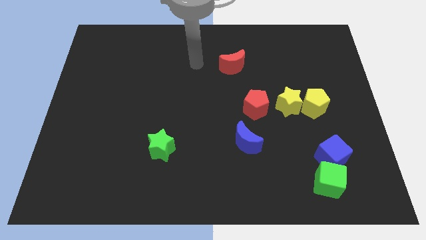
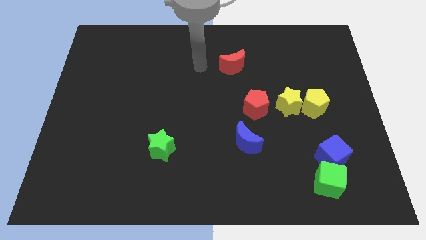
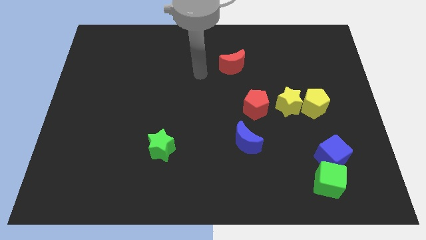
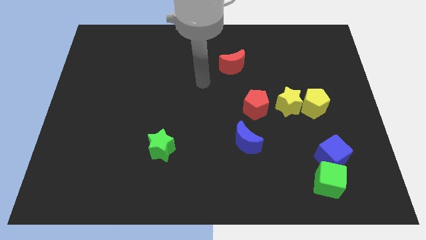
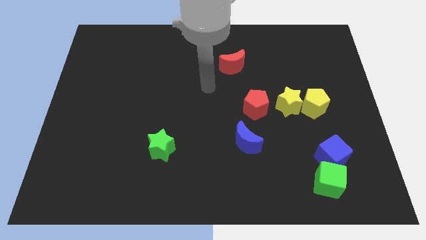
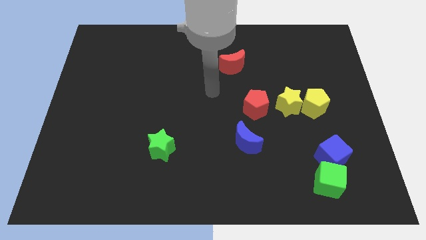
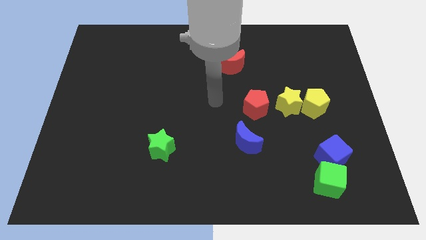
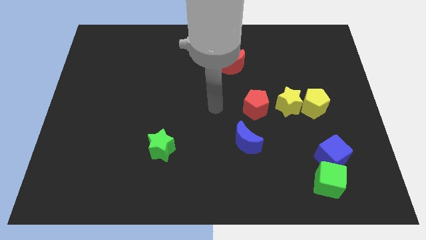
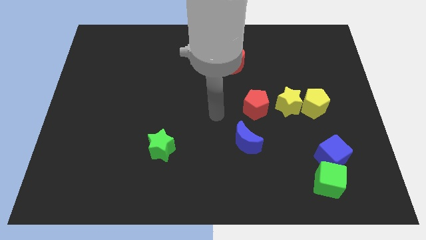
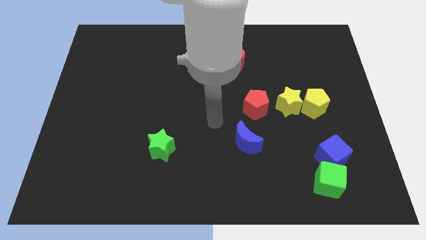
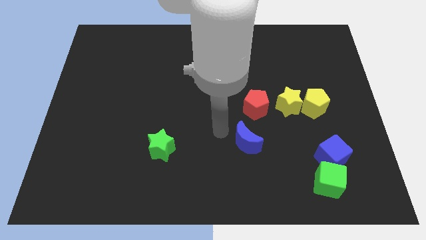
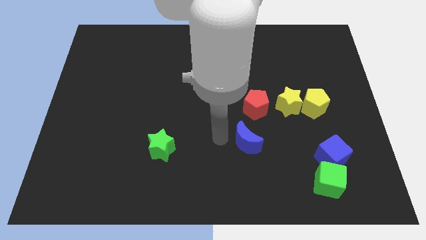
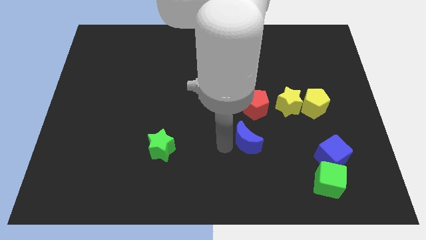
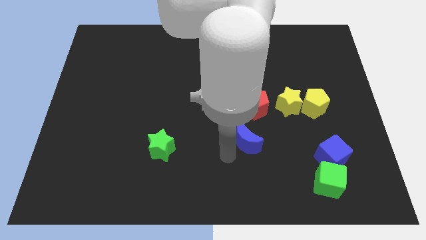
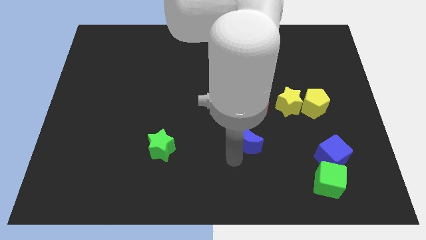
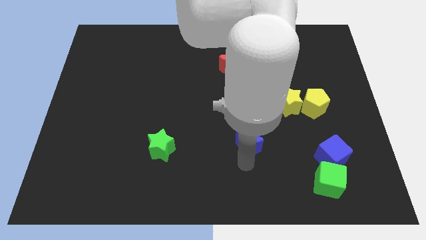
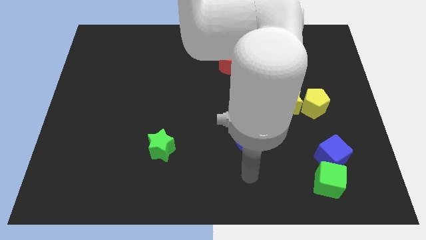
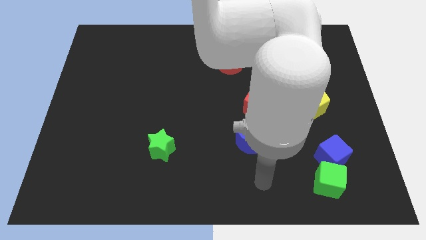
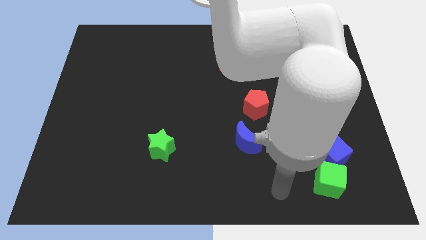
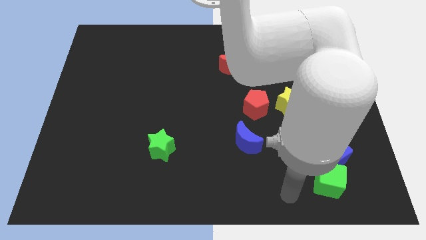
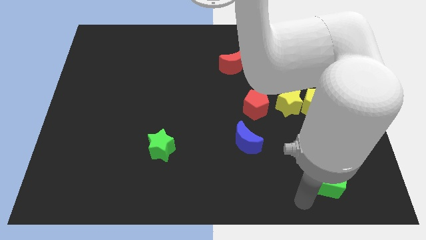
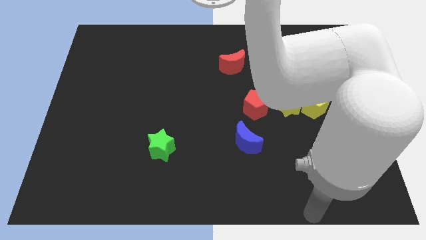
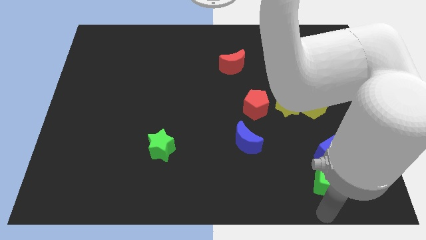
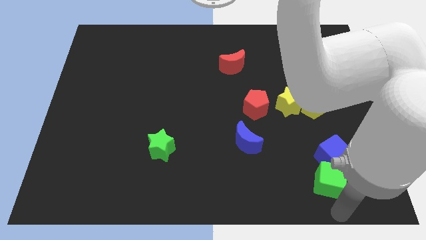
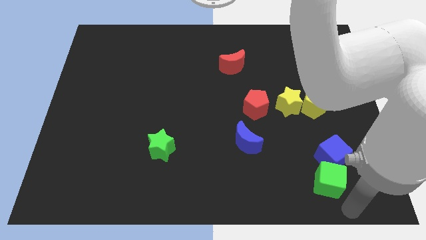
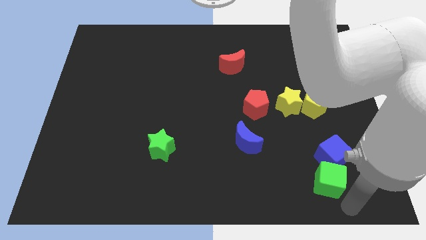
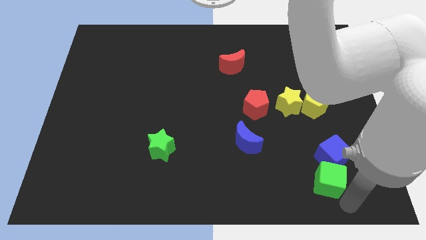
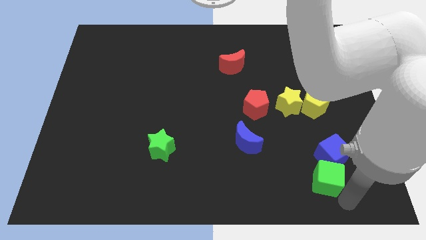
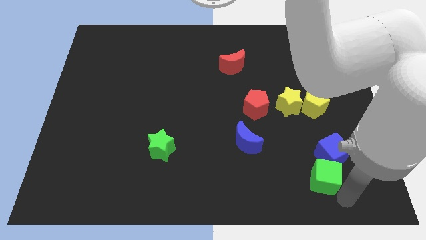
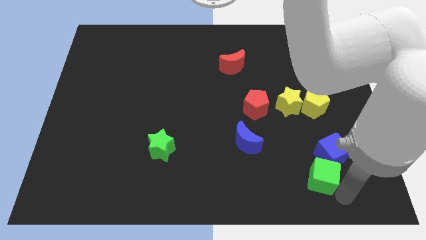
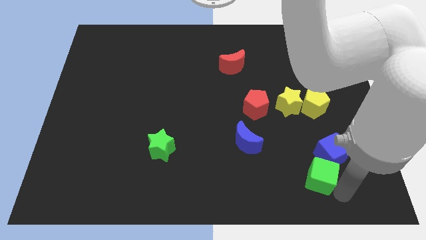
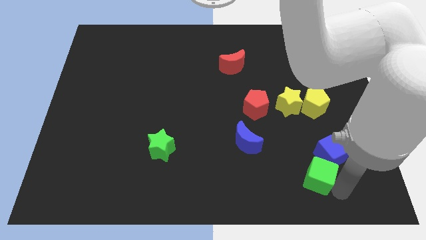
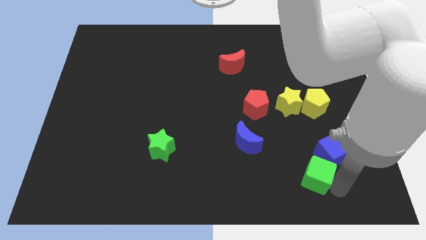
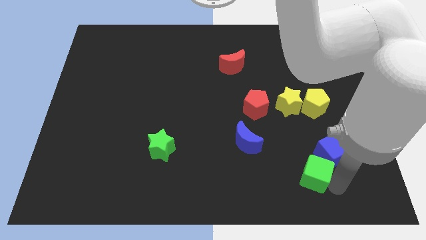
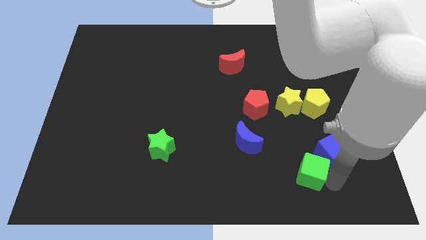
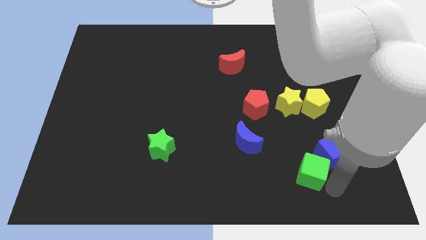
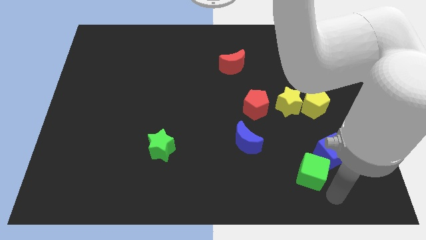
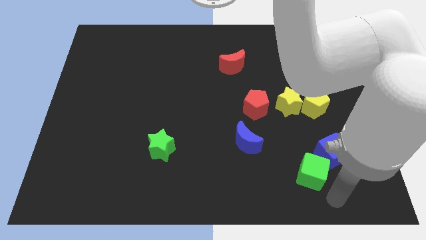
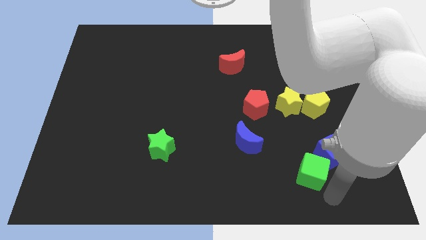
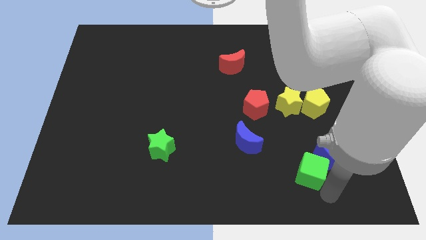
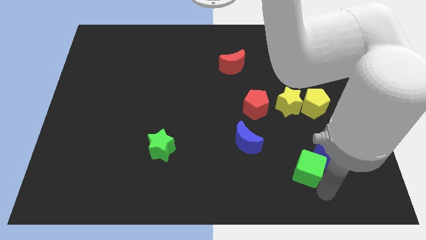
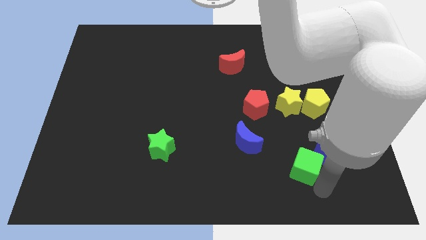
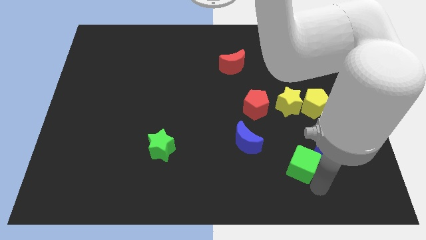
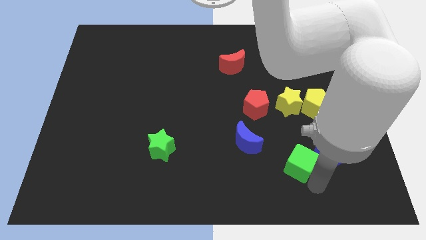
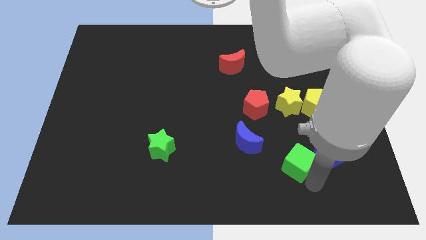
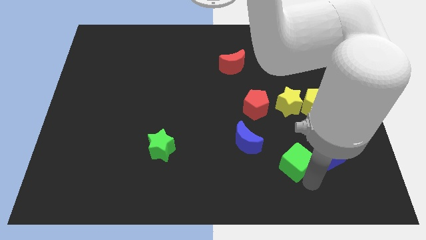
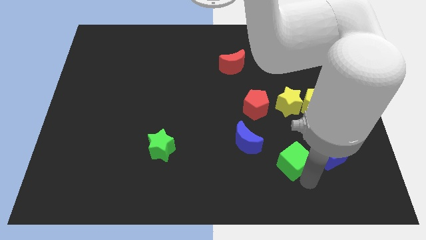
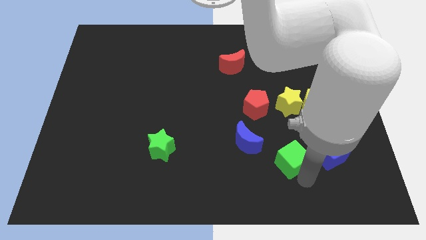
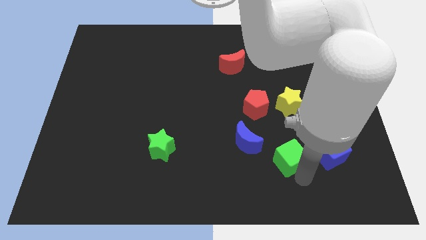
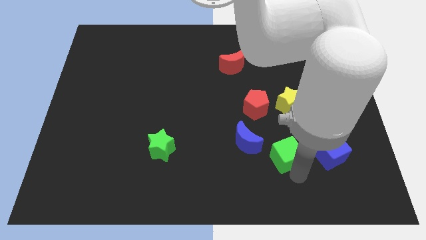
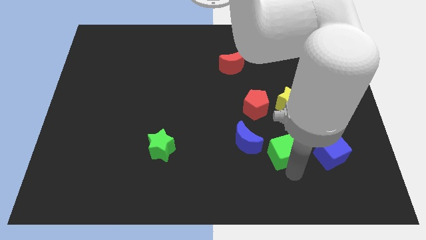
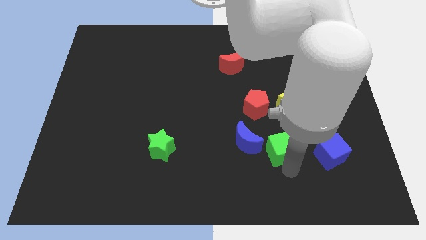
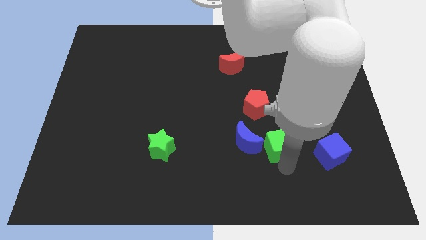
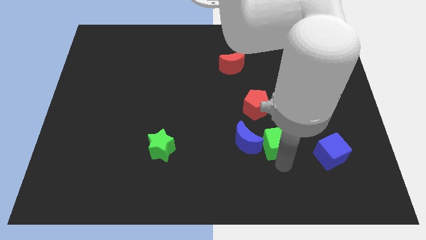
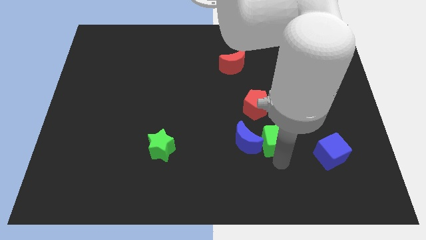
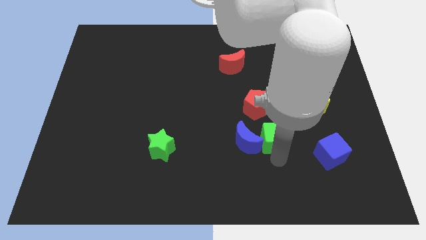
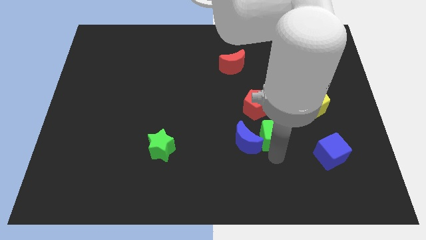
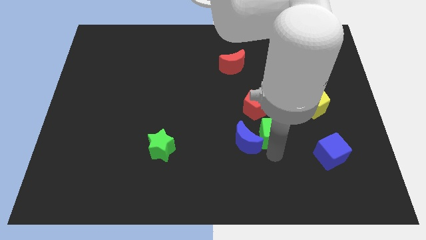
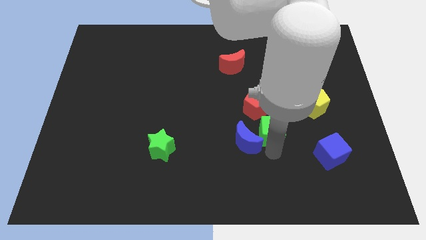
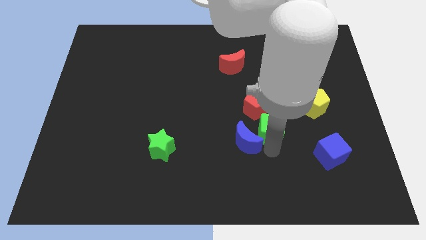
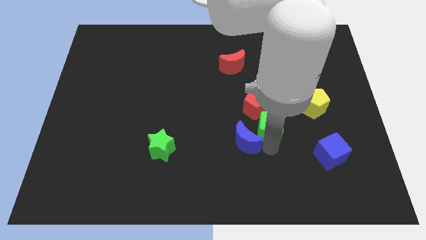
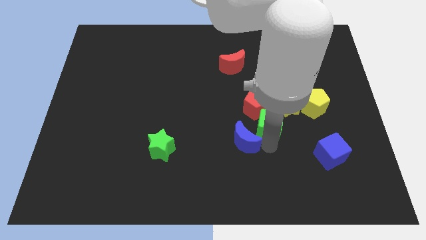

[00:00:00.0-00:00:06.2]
slide the green cube close to the red pentagon

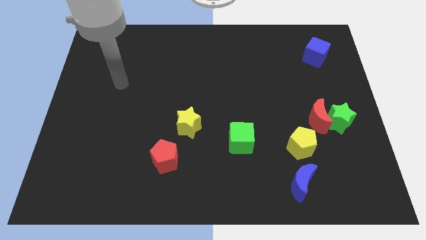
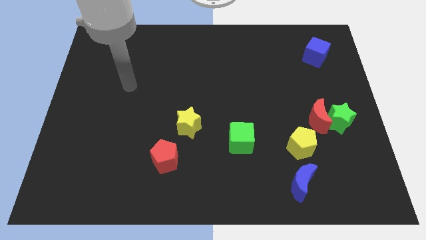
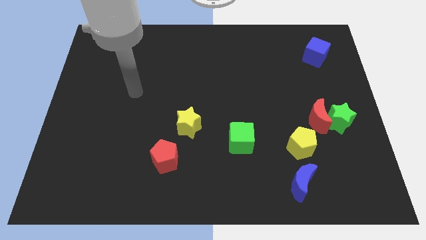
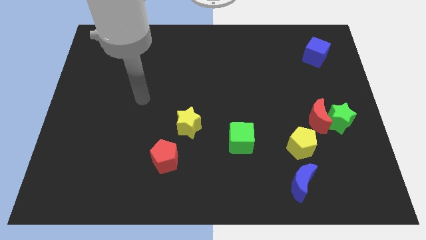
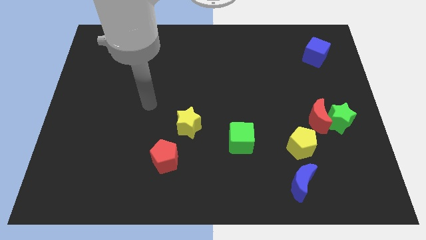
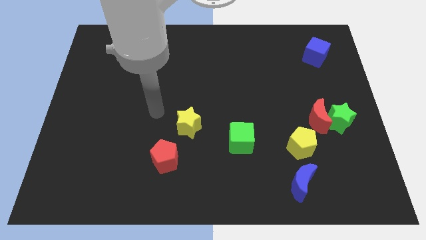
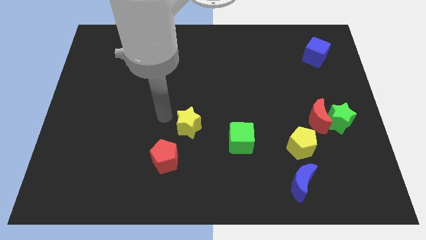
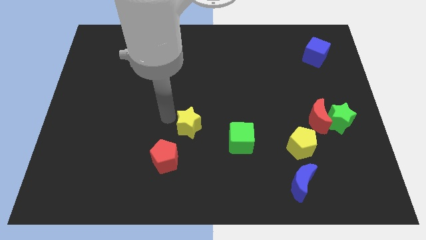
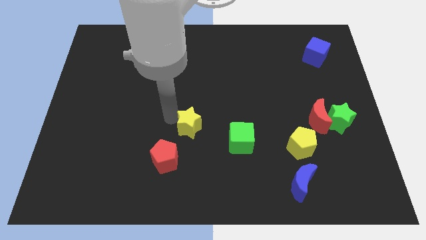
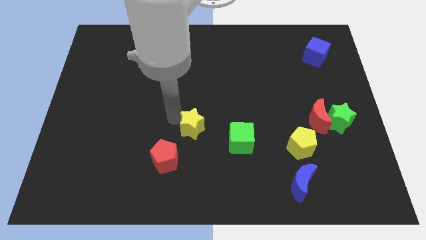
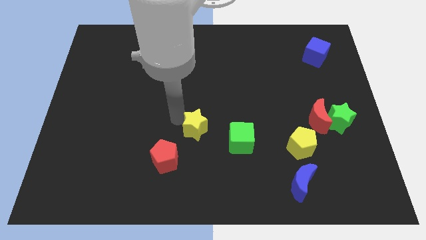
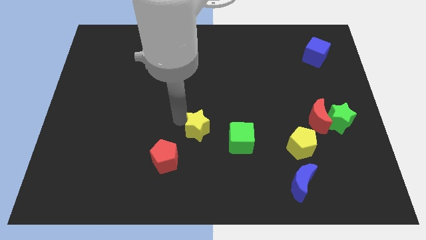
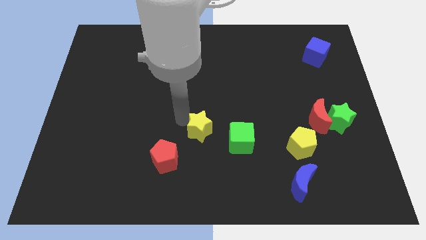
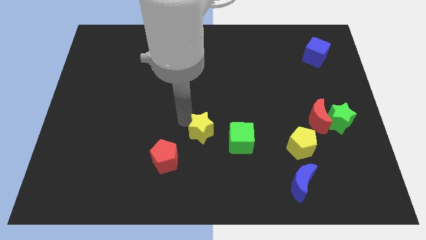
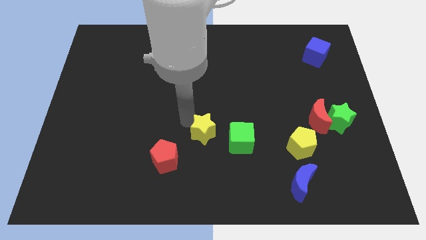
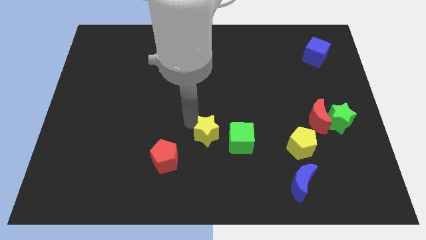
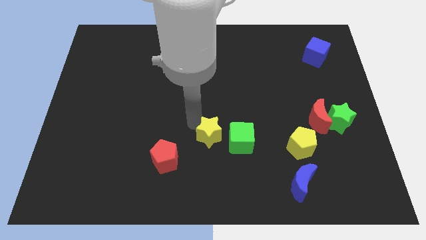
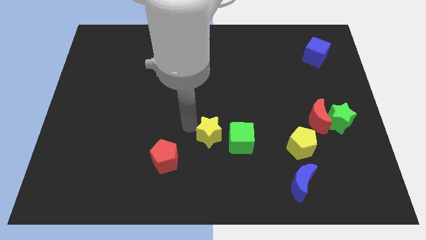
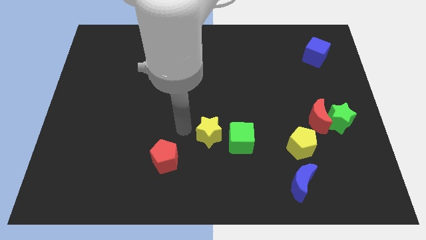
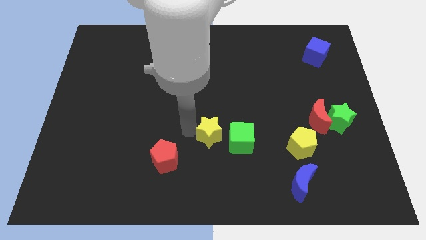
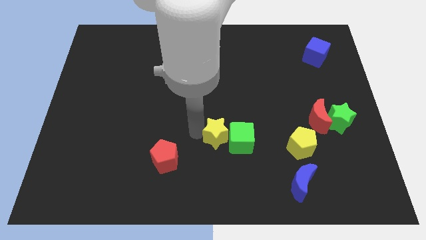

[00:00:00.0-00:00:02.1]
move the yellow star next to the green cube
